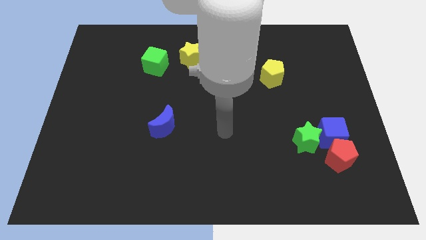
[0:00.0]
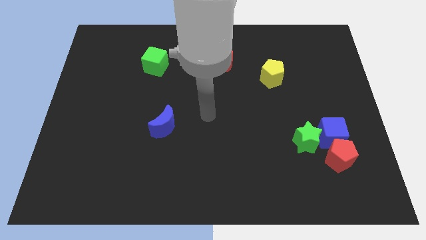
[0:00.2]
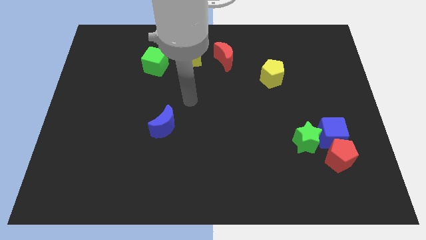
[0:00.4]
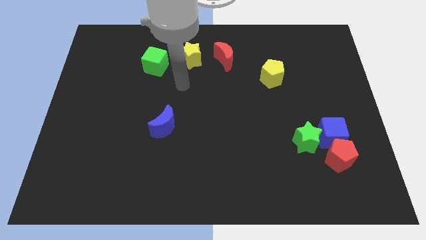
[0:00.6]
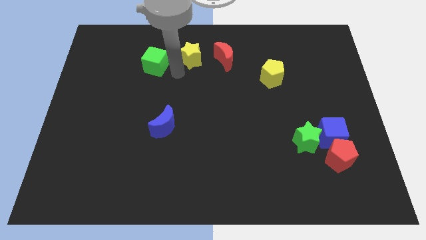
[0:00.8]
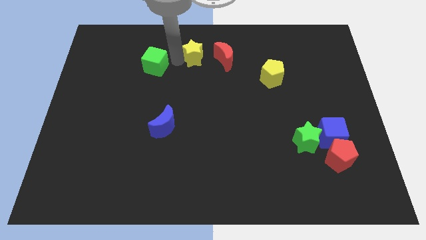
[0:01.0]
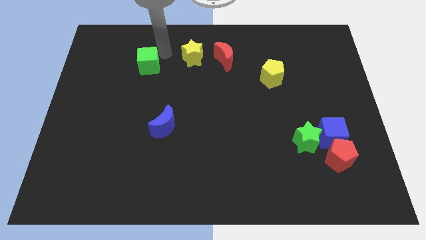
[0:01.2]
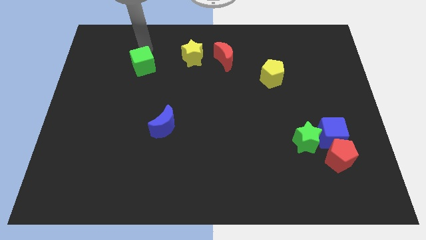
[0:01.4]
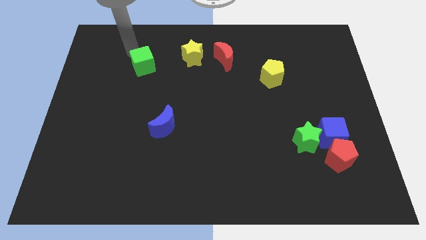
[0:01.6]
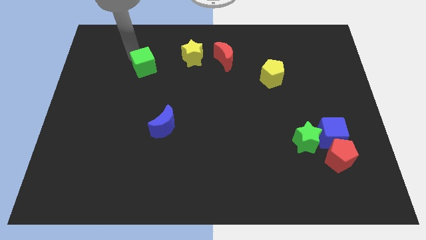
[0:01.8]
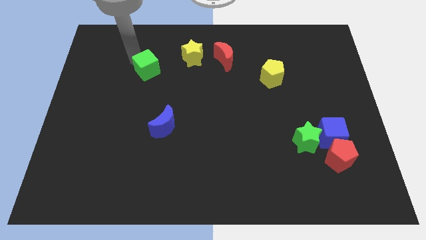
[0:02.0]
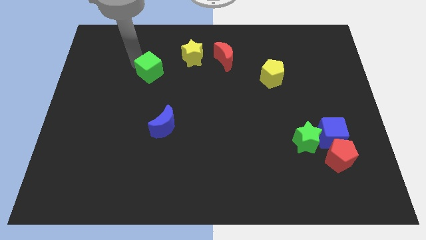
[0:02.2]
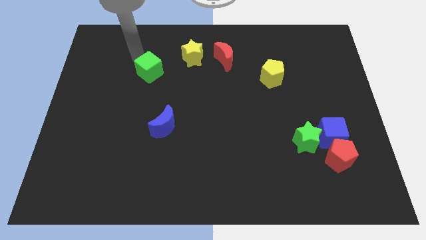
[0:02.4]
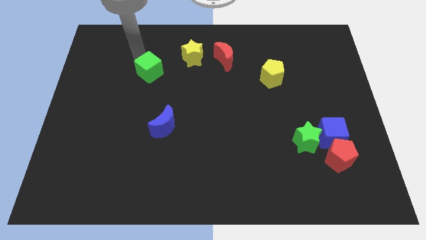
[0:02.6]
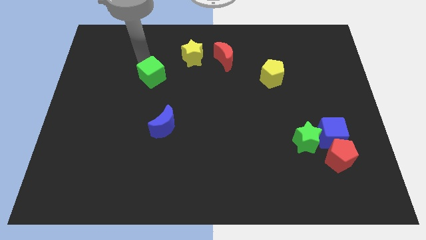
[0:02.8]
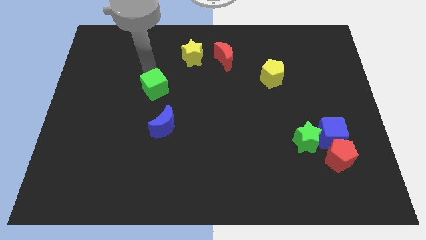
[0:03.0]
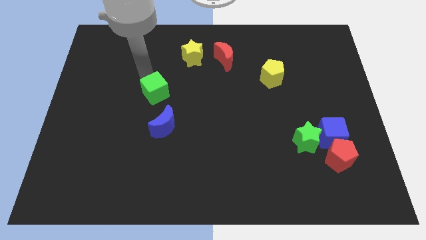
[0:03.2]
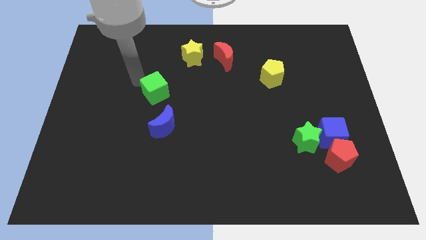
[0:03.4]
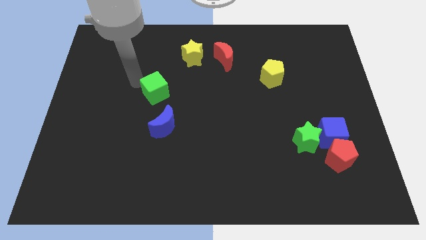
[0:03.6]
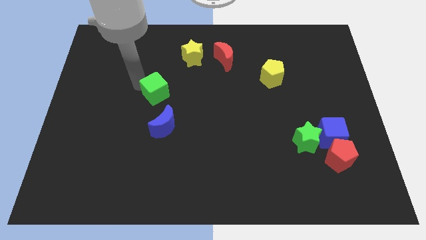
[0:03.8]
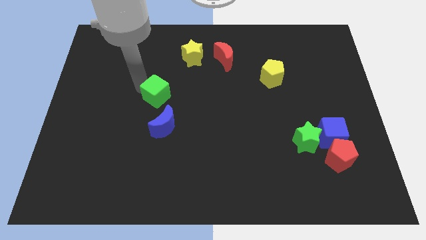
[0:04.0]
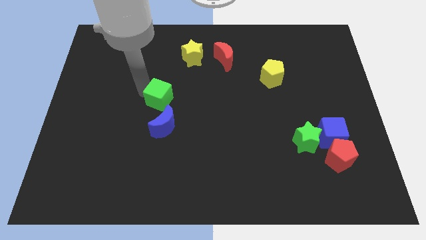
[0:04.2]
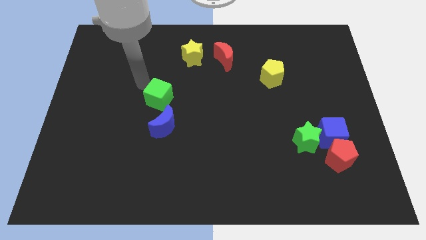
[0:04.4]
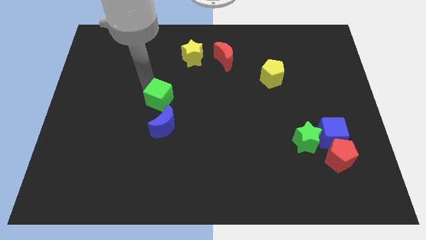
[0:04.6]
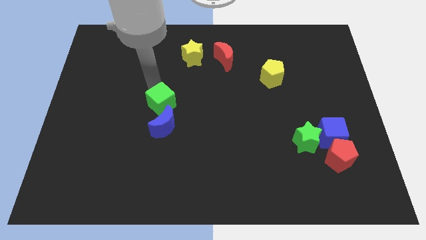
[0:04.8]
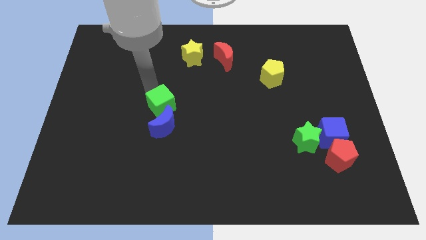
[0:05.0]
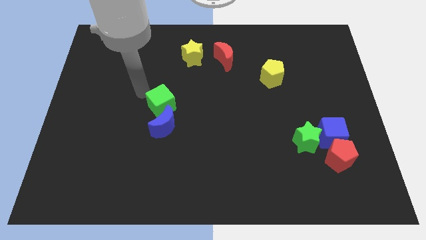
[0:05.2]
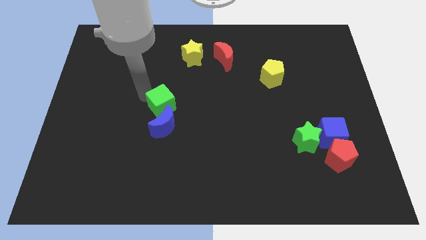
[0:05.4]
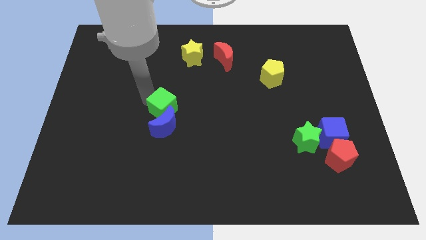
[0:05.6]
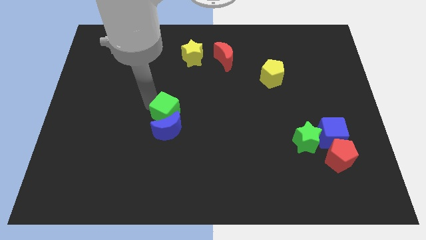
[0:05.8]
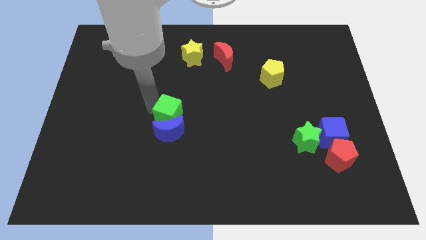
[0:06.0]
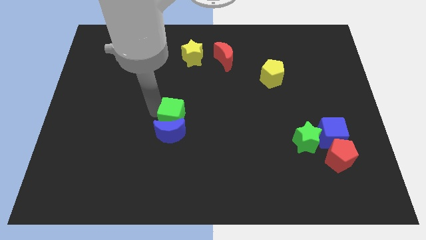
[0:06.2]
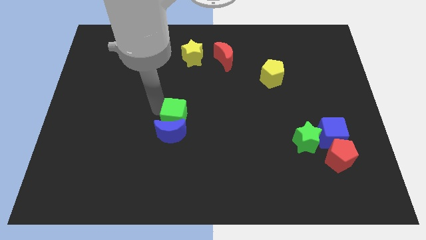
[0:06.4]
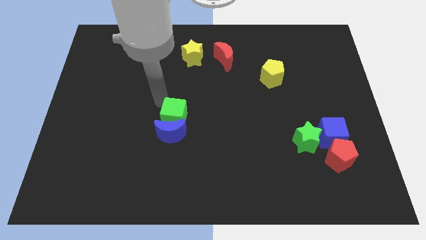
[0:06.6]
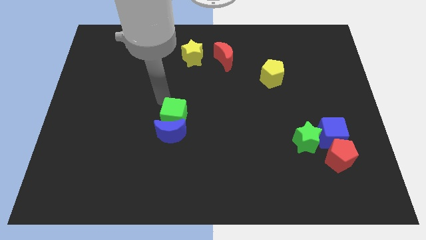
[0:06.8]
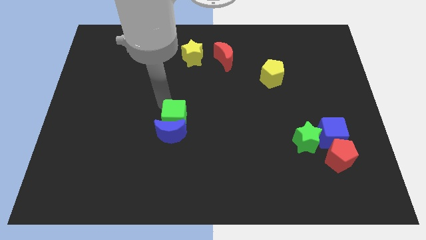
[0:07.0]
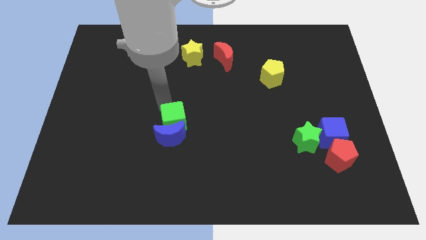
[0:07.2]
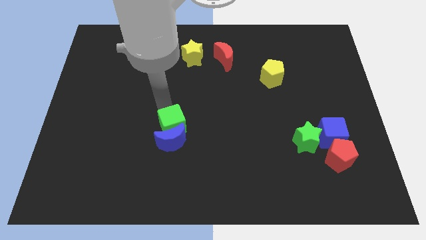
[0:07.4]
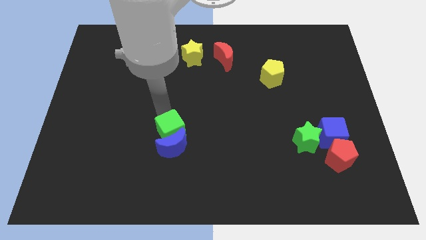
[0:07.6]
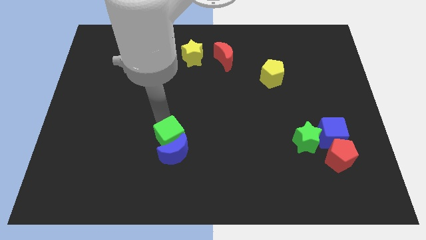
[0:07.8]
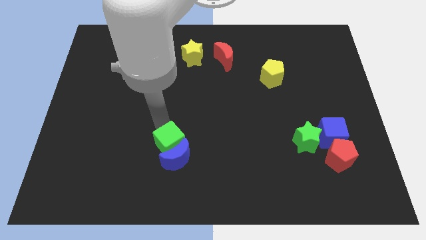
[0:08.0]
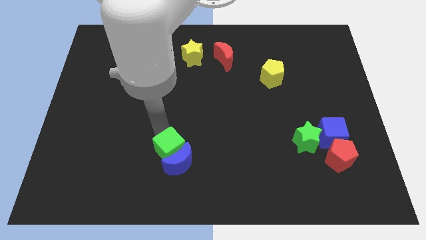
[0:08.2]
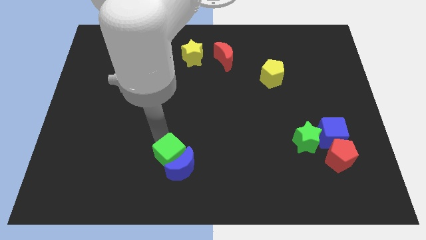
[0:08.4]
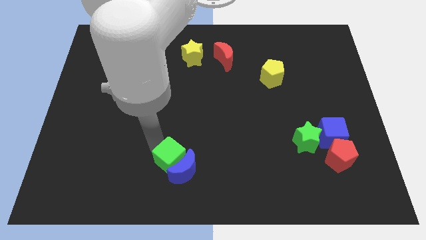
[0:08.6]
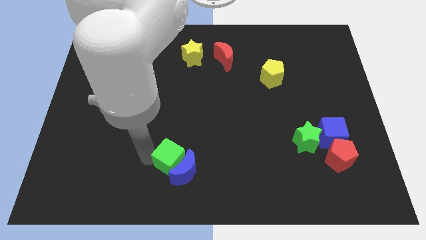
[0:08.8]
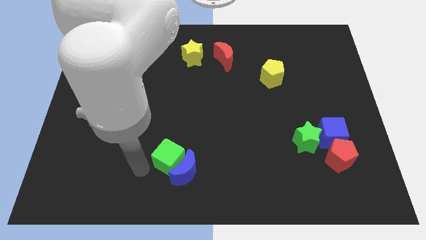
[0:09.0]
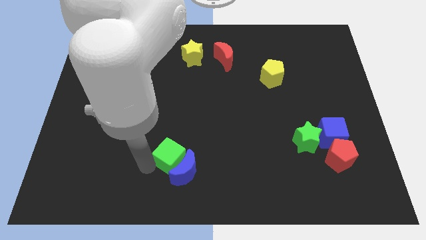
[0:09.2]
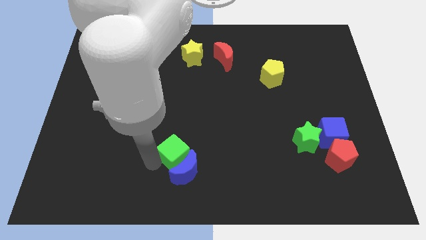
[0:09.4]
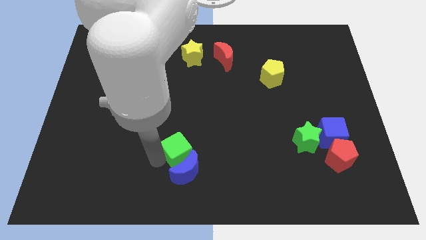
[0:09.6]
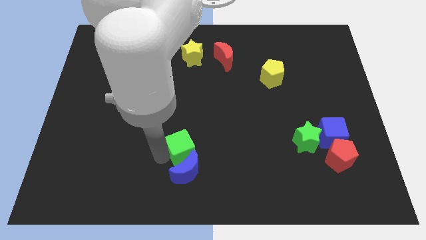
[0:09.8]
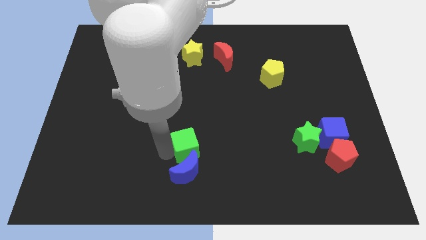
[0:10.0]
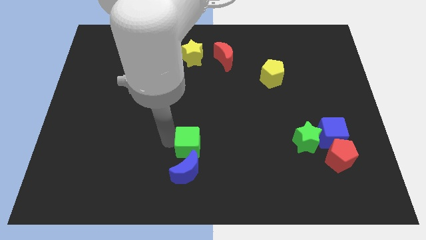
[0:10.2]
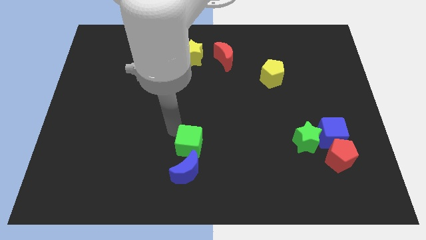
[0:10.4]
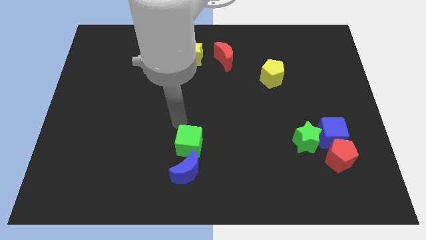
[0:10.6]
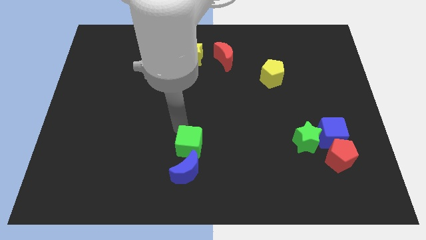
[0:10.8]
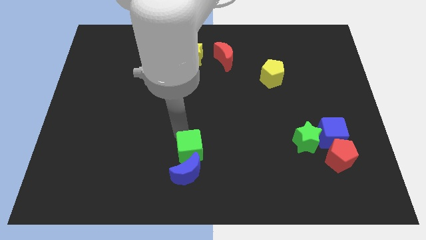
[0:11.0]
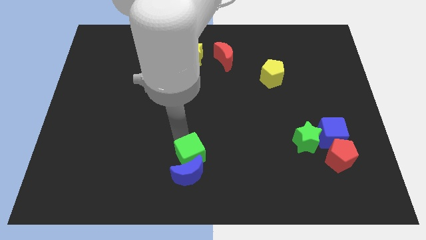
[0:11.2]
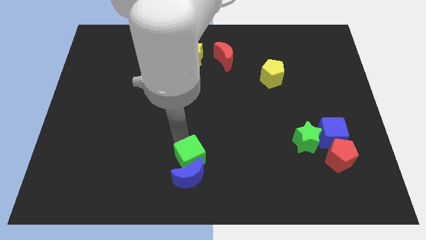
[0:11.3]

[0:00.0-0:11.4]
move the green cube to the bottom side
